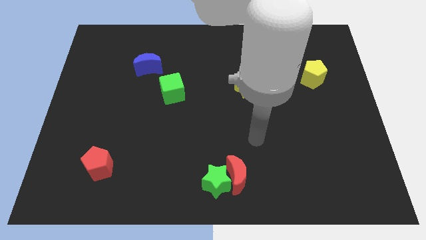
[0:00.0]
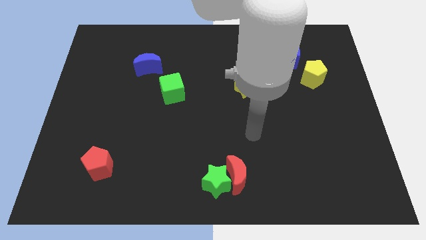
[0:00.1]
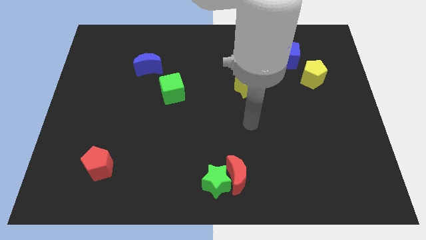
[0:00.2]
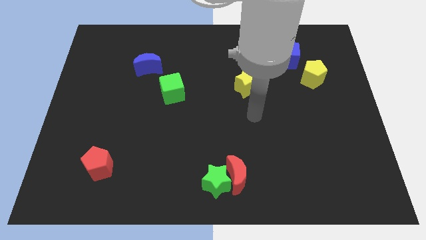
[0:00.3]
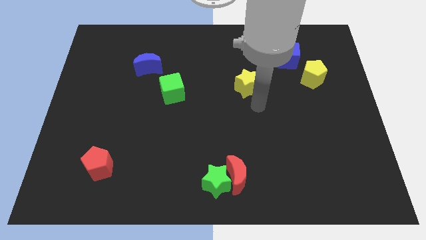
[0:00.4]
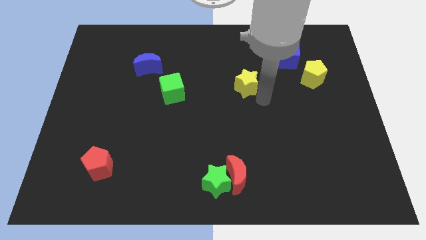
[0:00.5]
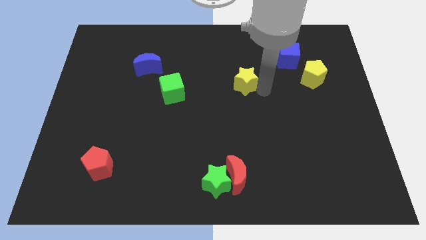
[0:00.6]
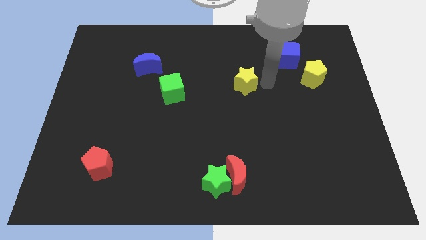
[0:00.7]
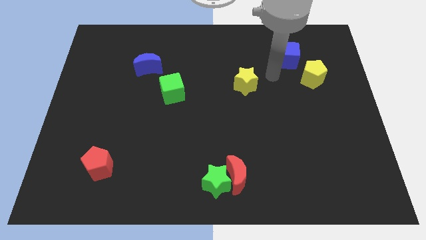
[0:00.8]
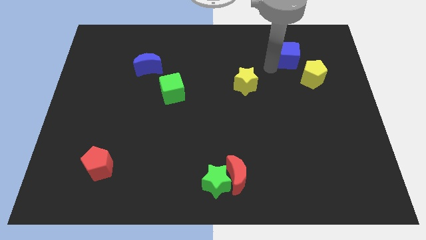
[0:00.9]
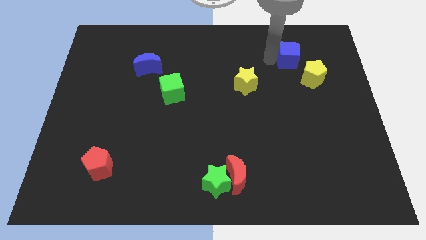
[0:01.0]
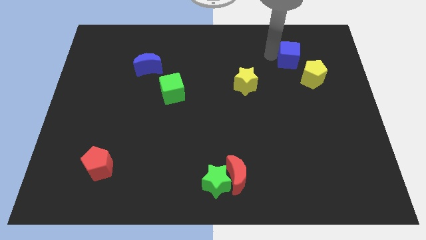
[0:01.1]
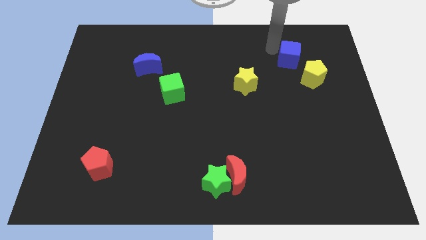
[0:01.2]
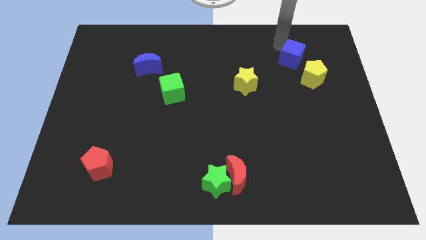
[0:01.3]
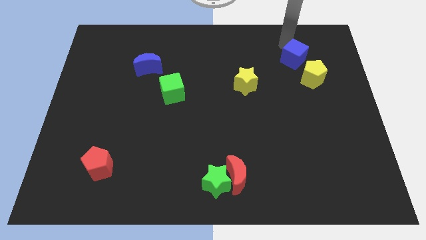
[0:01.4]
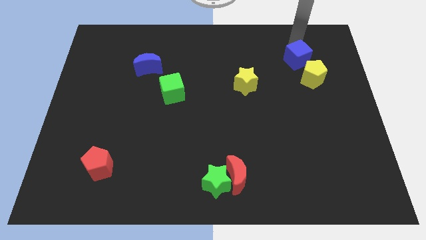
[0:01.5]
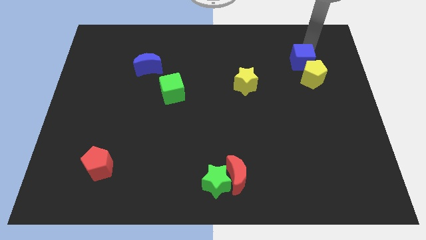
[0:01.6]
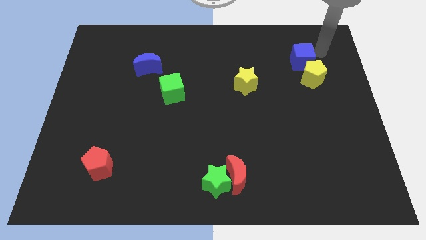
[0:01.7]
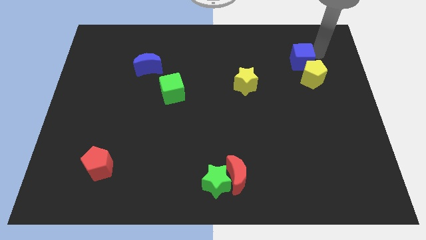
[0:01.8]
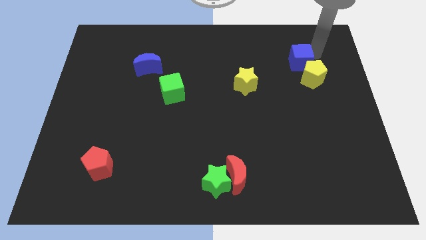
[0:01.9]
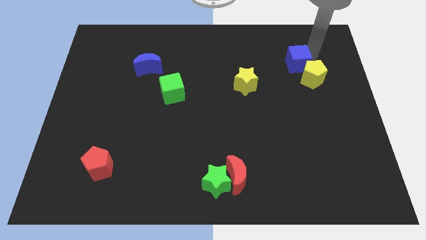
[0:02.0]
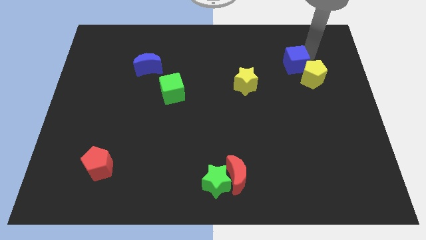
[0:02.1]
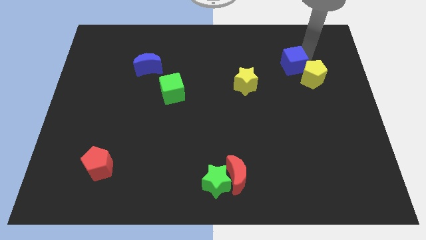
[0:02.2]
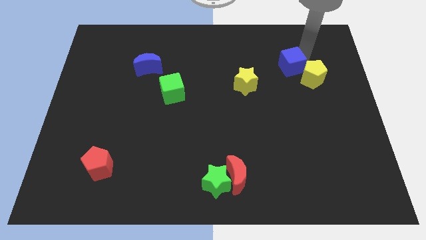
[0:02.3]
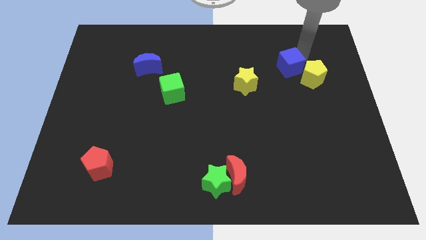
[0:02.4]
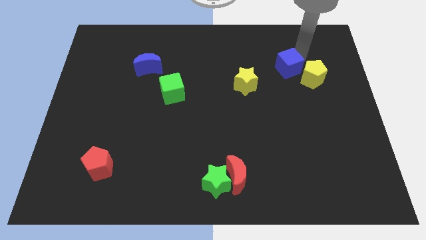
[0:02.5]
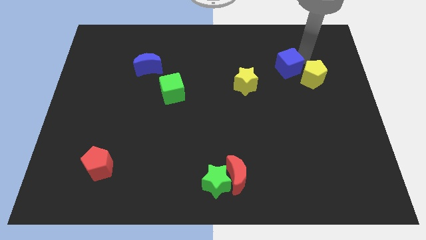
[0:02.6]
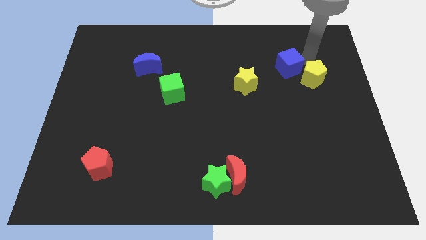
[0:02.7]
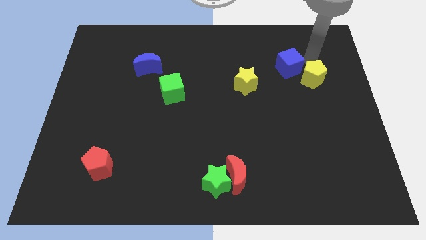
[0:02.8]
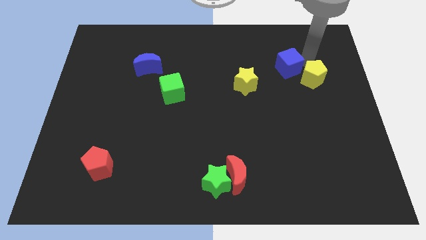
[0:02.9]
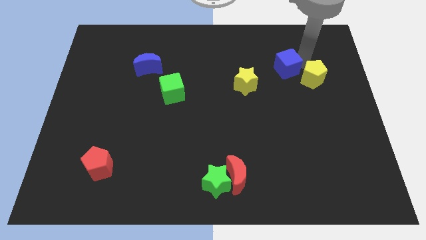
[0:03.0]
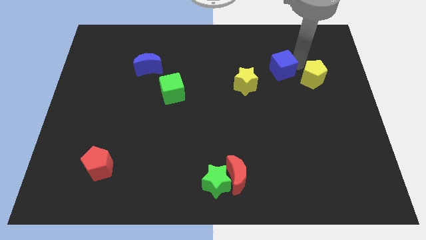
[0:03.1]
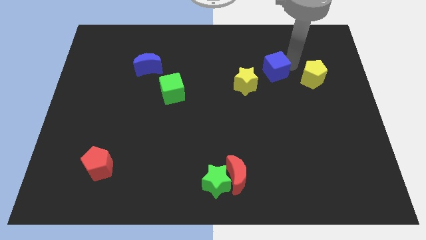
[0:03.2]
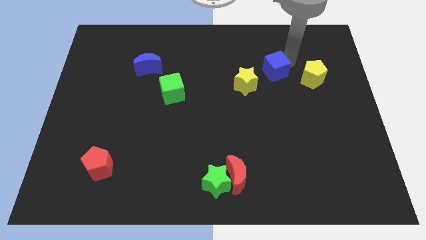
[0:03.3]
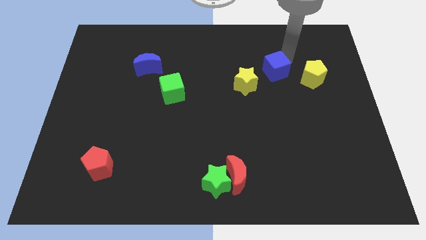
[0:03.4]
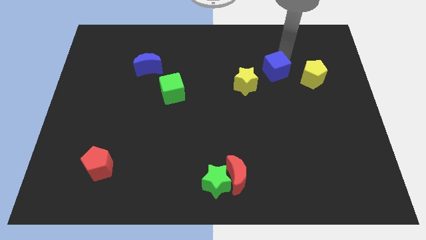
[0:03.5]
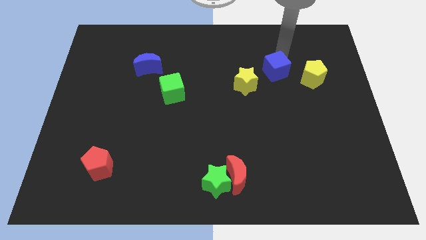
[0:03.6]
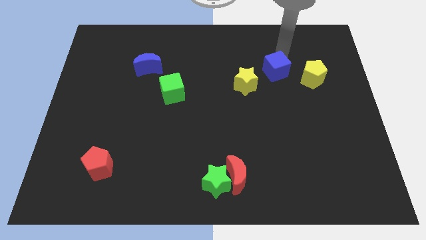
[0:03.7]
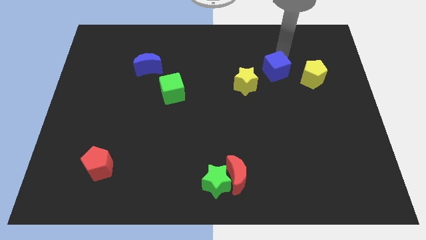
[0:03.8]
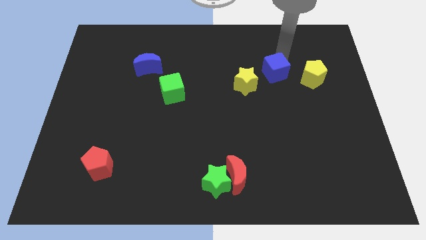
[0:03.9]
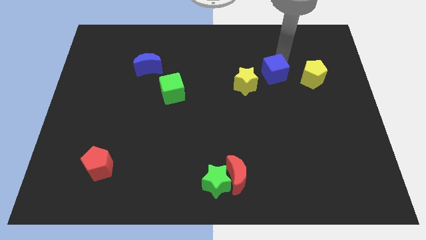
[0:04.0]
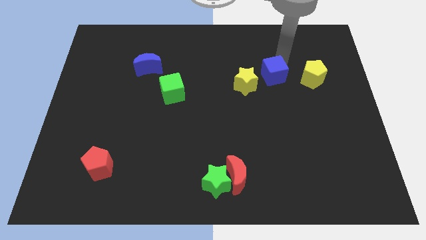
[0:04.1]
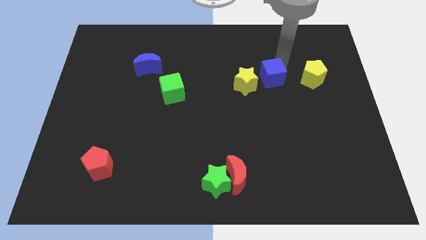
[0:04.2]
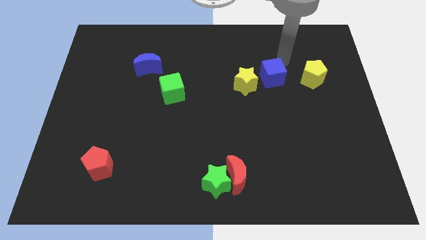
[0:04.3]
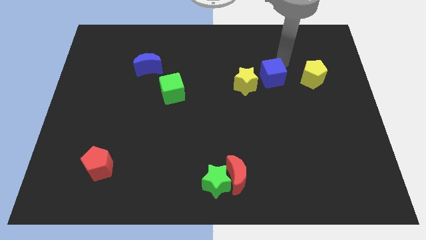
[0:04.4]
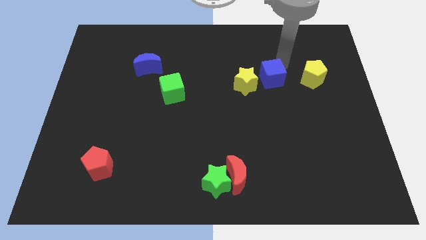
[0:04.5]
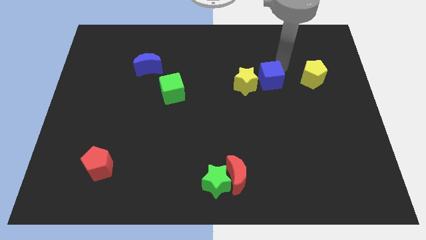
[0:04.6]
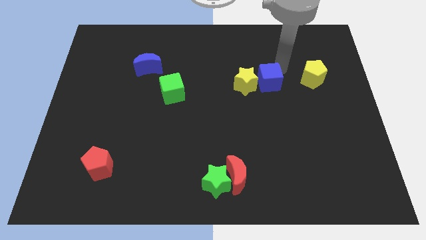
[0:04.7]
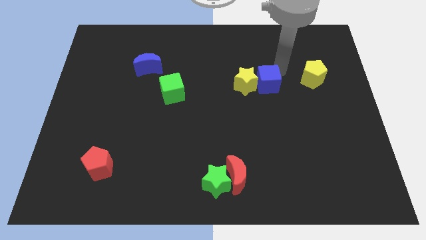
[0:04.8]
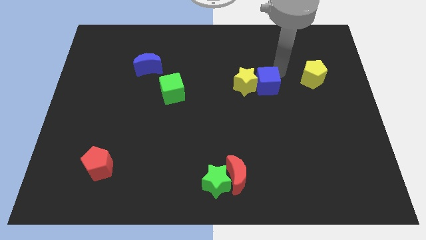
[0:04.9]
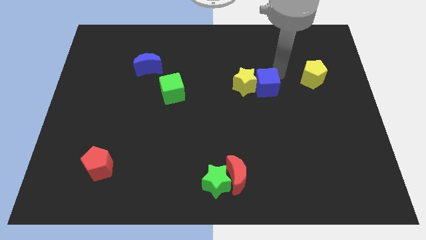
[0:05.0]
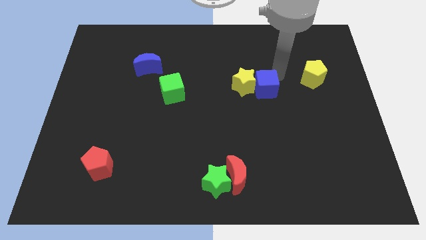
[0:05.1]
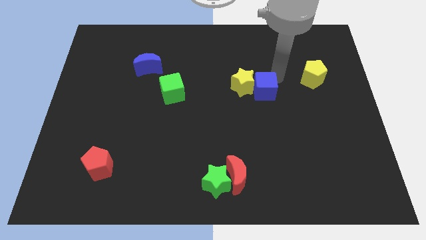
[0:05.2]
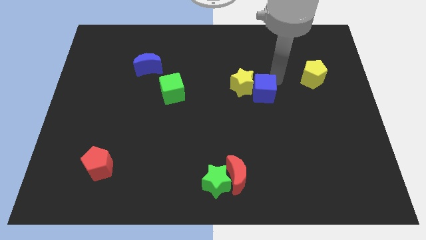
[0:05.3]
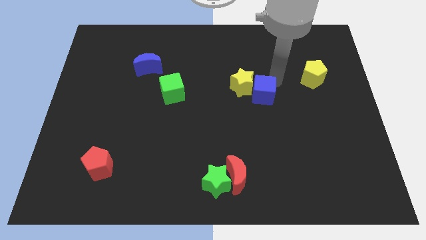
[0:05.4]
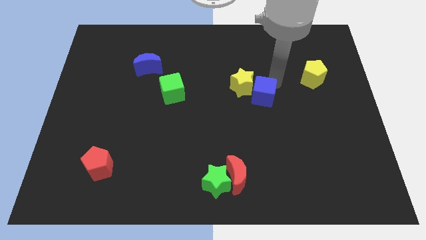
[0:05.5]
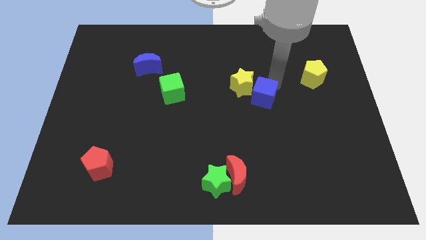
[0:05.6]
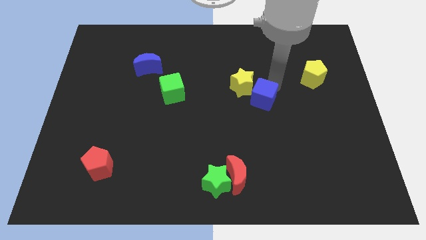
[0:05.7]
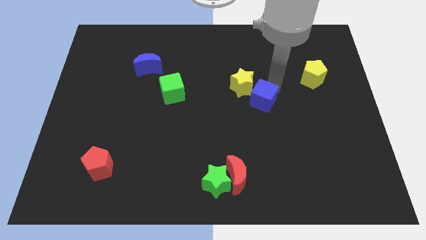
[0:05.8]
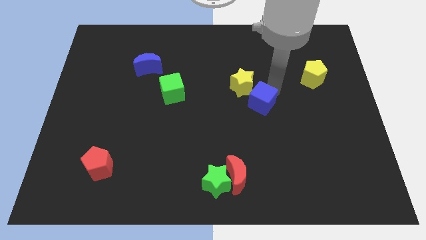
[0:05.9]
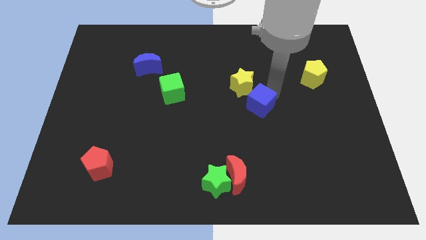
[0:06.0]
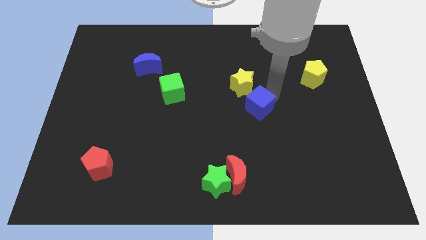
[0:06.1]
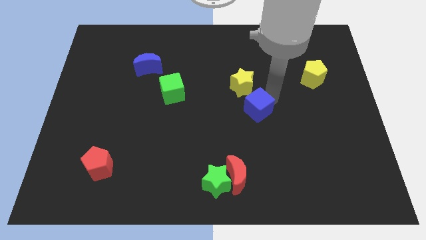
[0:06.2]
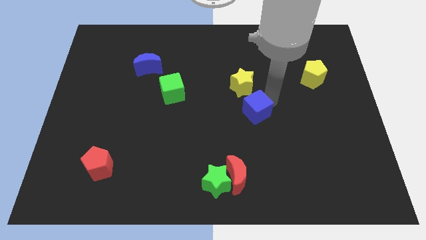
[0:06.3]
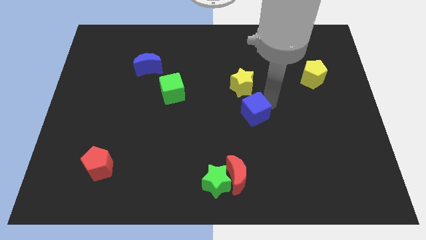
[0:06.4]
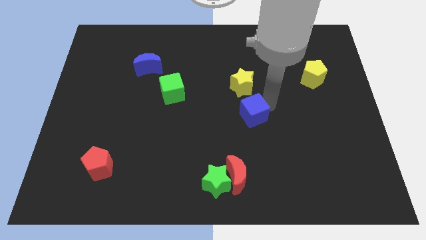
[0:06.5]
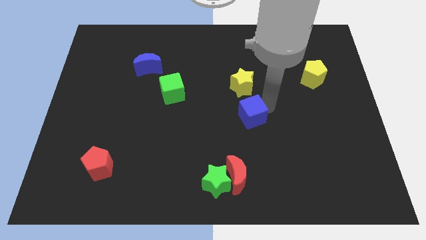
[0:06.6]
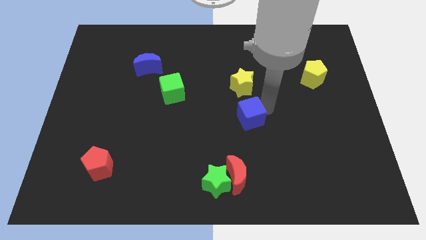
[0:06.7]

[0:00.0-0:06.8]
push the blue cube downwards and then left

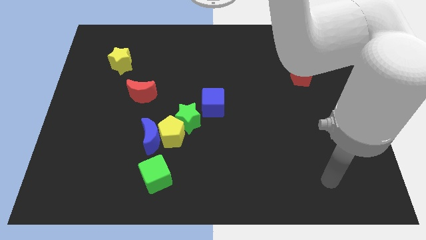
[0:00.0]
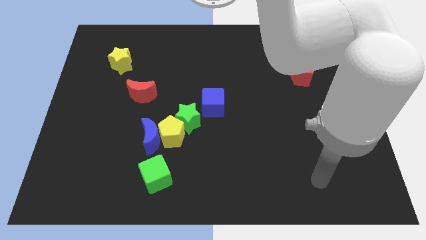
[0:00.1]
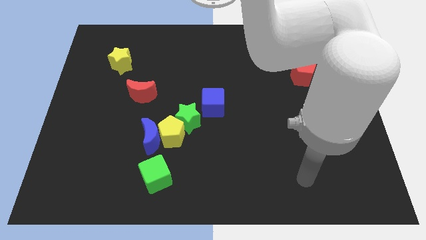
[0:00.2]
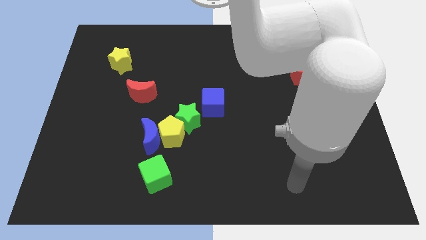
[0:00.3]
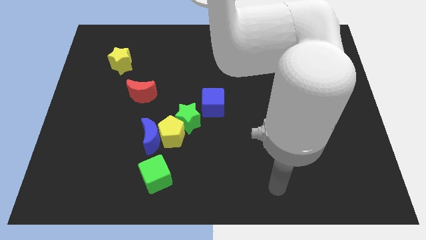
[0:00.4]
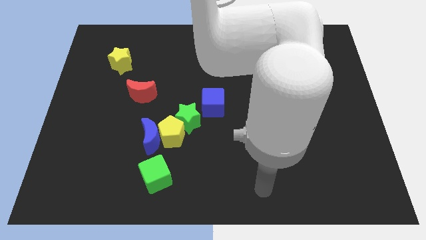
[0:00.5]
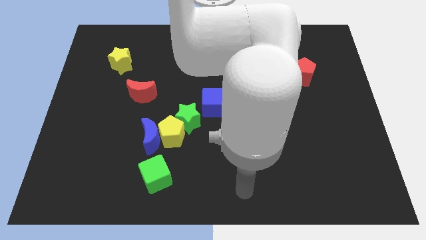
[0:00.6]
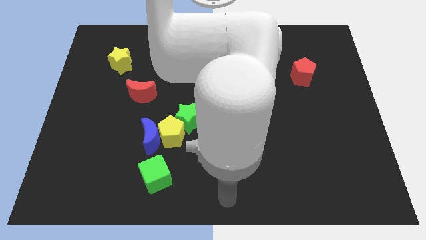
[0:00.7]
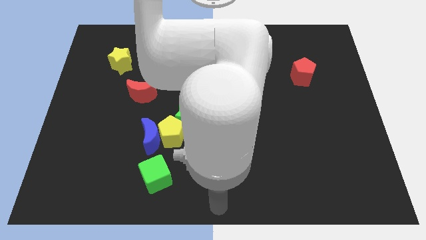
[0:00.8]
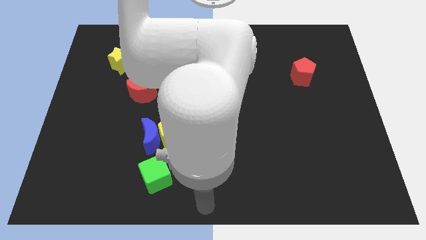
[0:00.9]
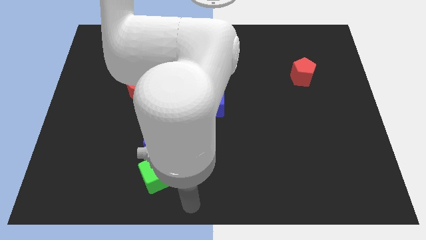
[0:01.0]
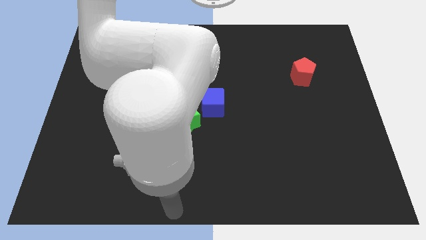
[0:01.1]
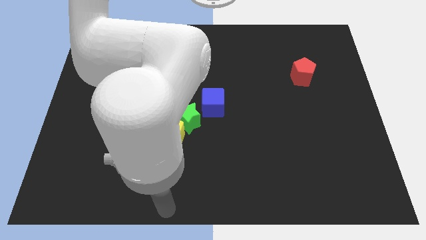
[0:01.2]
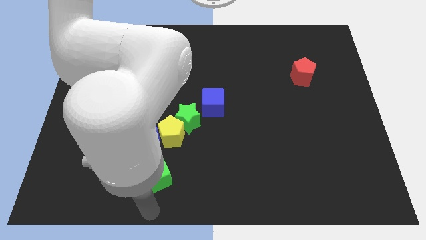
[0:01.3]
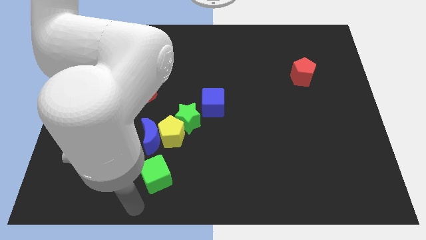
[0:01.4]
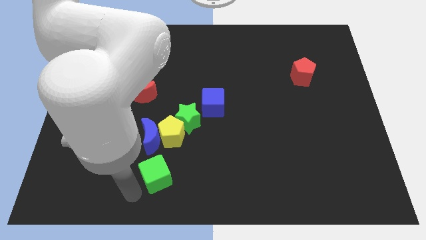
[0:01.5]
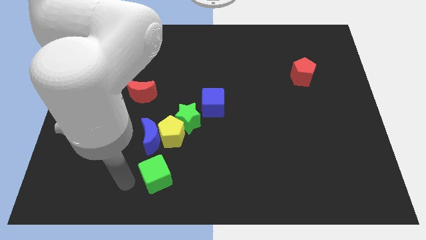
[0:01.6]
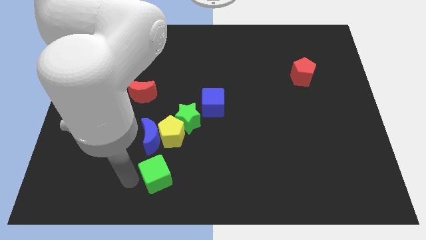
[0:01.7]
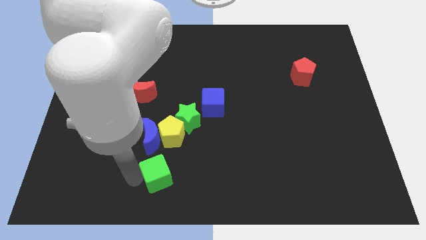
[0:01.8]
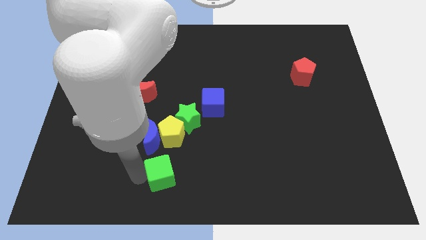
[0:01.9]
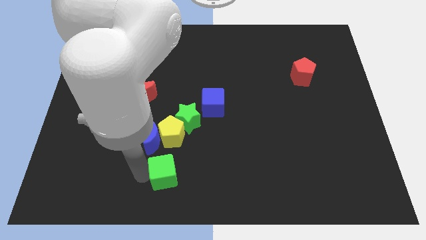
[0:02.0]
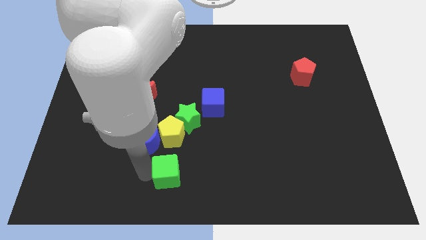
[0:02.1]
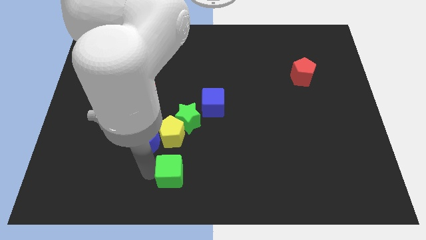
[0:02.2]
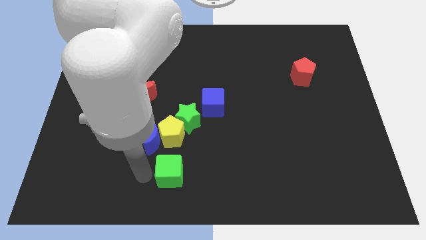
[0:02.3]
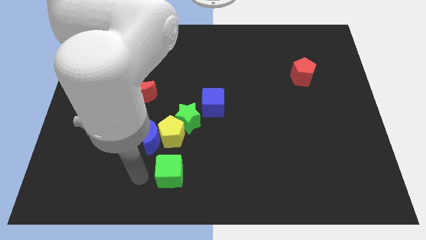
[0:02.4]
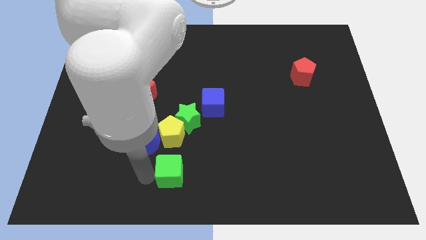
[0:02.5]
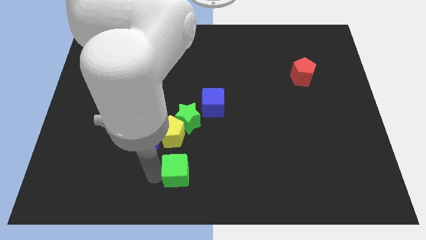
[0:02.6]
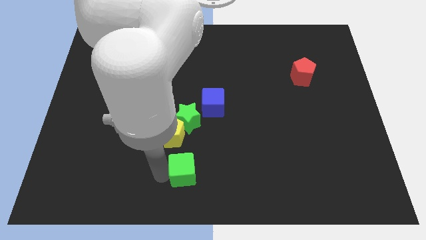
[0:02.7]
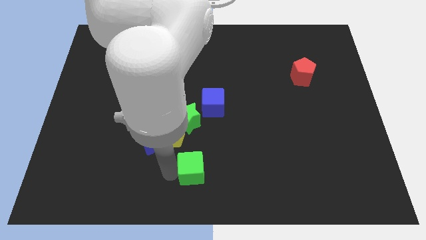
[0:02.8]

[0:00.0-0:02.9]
slightly slide the green cube to the right
